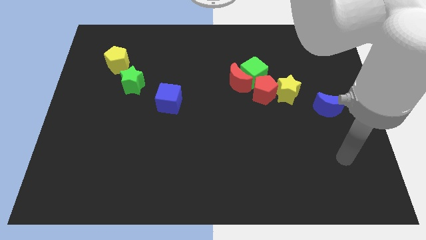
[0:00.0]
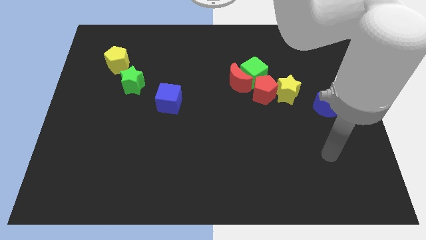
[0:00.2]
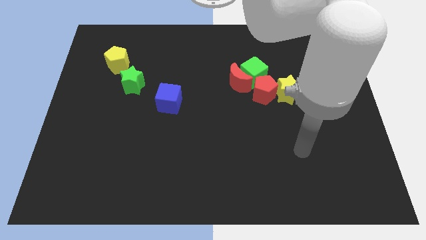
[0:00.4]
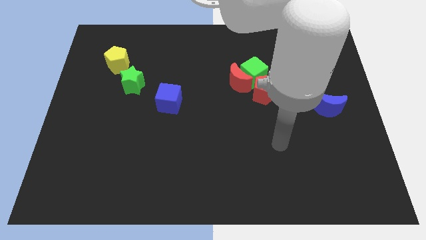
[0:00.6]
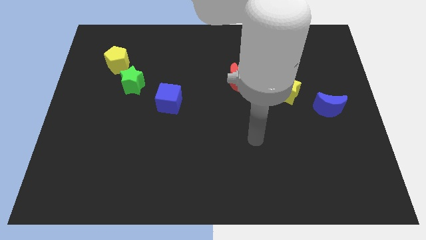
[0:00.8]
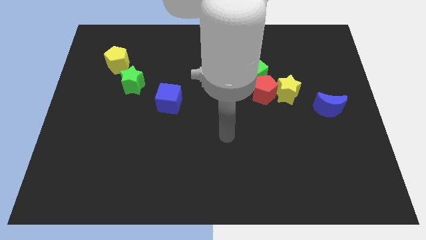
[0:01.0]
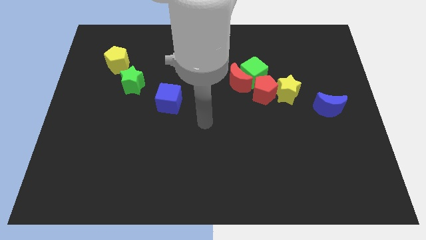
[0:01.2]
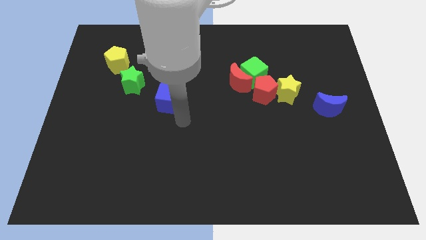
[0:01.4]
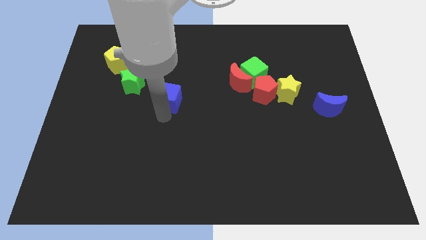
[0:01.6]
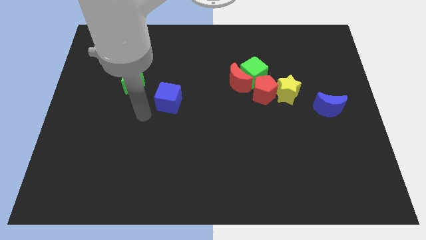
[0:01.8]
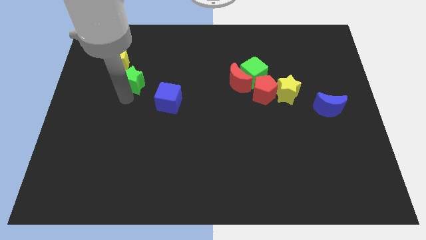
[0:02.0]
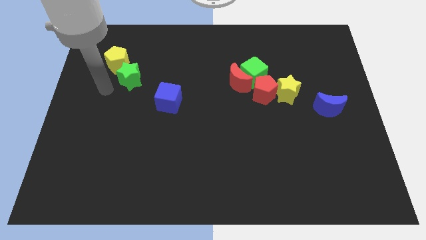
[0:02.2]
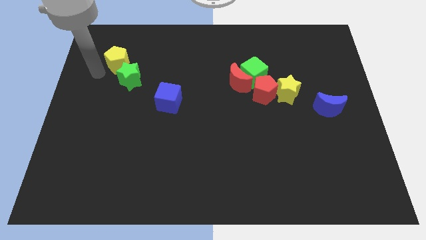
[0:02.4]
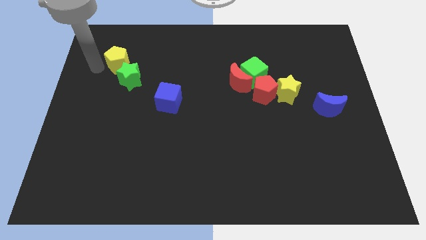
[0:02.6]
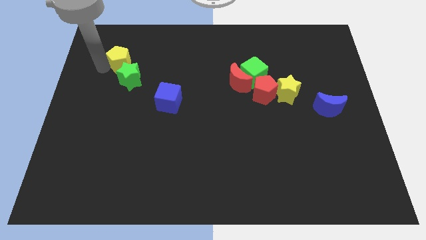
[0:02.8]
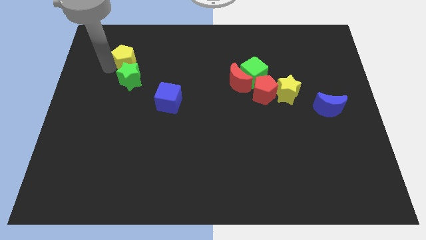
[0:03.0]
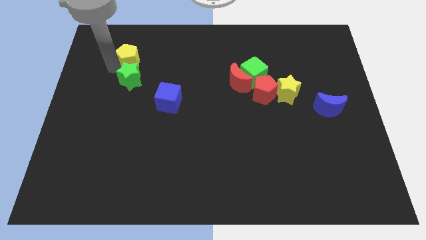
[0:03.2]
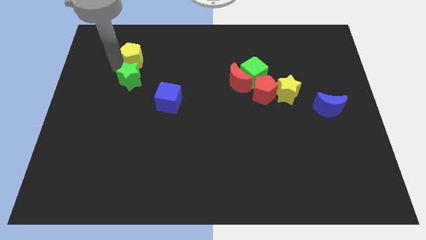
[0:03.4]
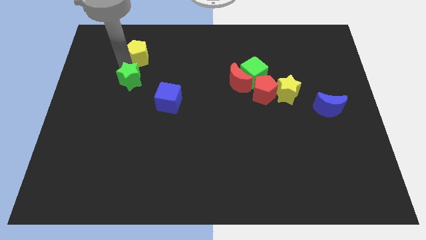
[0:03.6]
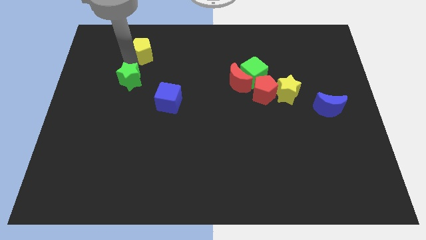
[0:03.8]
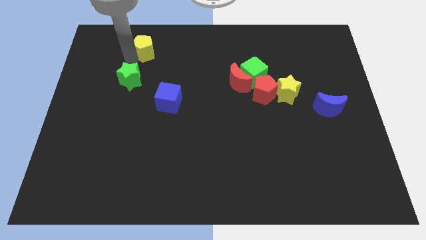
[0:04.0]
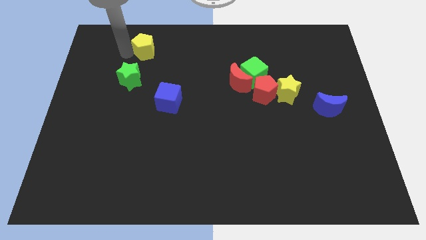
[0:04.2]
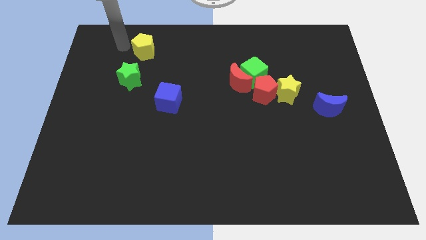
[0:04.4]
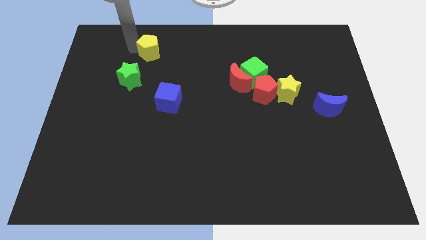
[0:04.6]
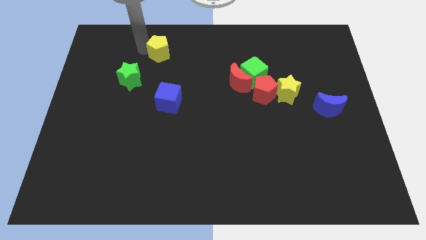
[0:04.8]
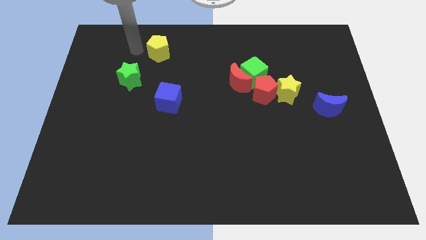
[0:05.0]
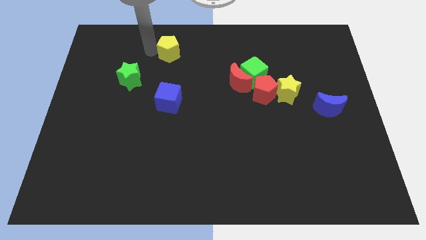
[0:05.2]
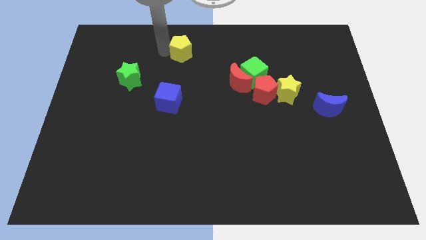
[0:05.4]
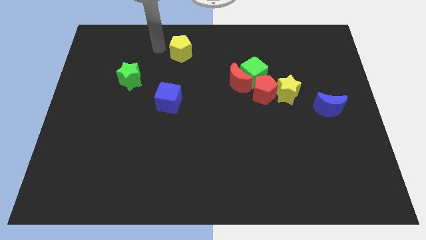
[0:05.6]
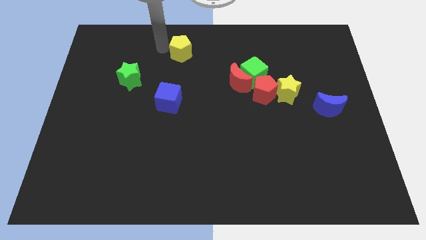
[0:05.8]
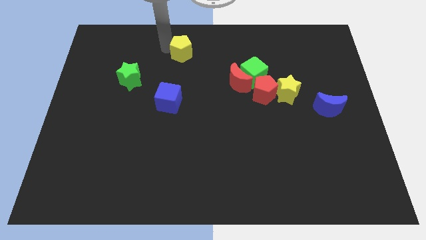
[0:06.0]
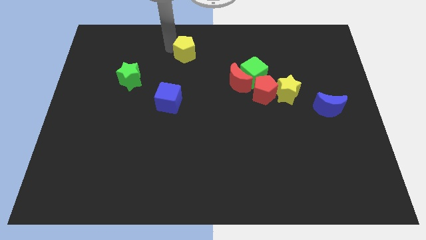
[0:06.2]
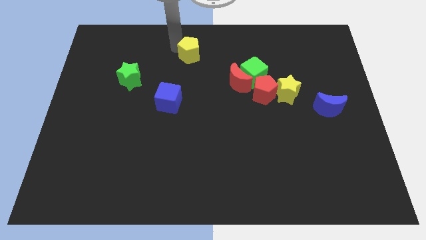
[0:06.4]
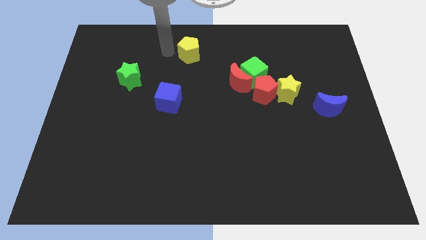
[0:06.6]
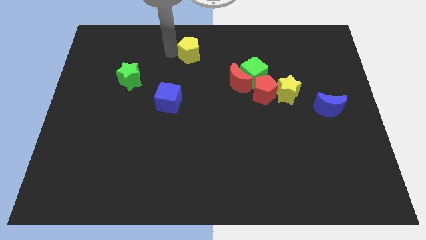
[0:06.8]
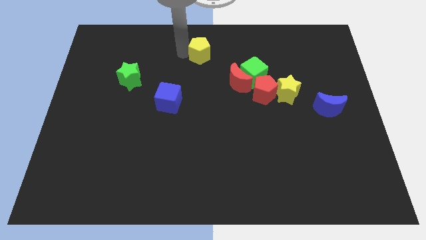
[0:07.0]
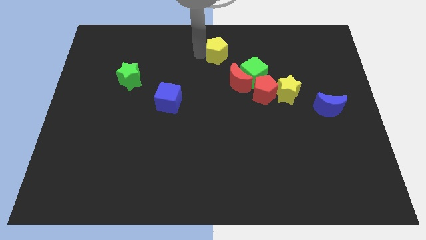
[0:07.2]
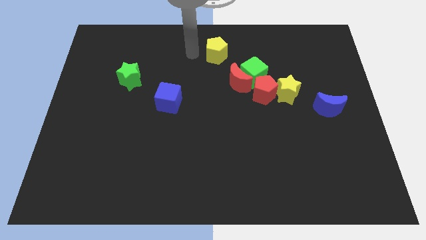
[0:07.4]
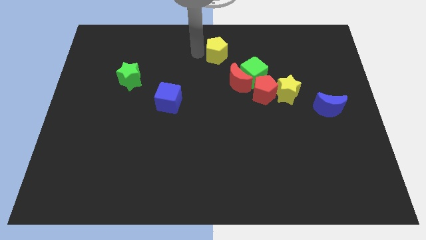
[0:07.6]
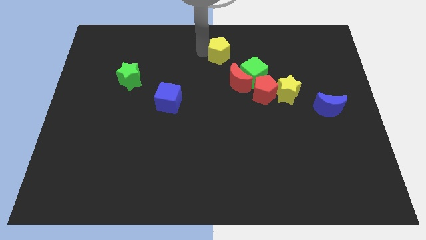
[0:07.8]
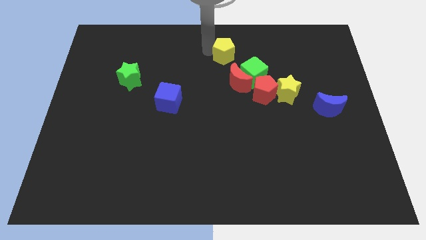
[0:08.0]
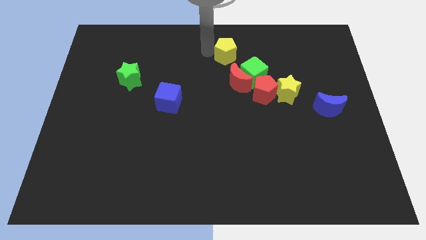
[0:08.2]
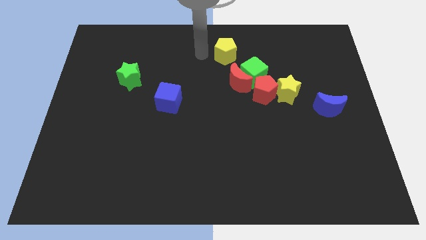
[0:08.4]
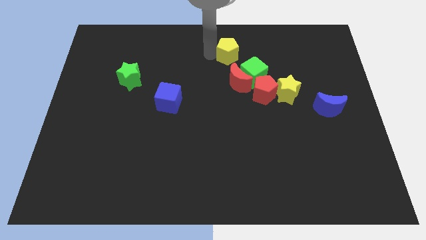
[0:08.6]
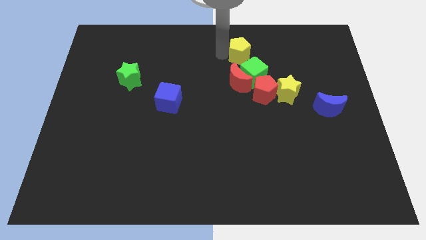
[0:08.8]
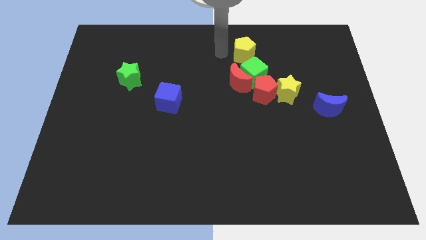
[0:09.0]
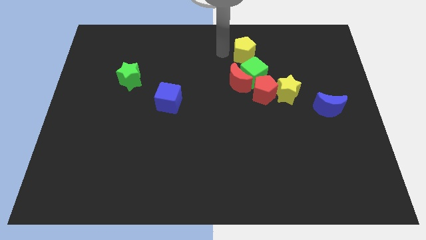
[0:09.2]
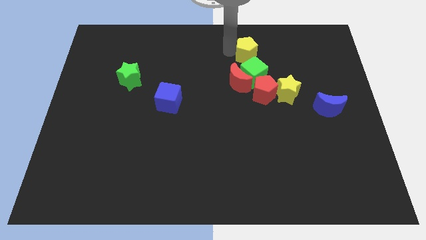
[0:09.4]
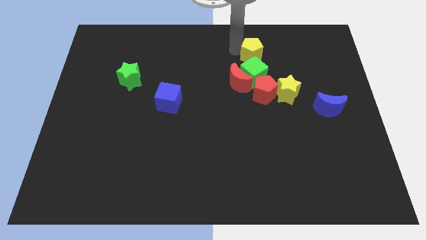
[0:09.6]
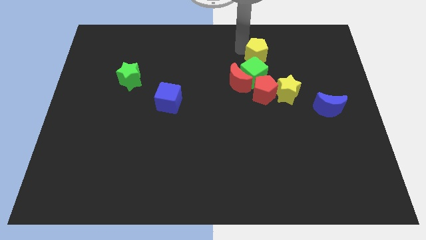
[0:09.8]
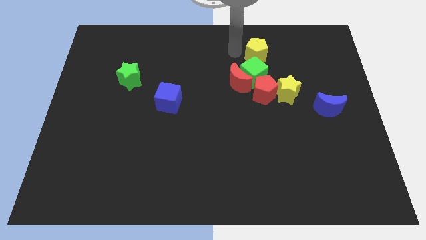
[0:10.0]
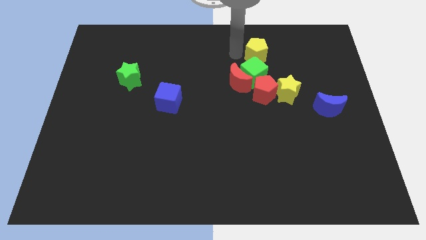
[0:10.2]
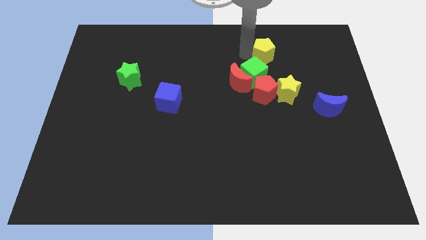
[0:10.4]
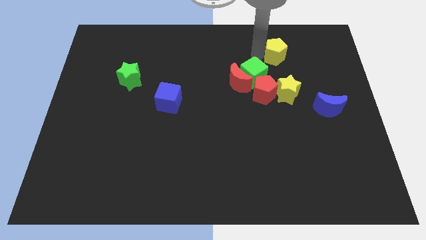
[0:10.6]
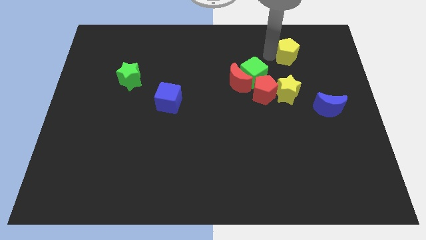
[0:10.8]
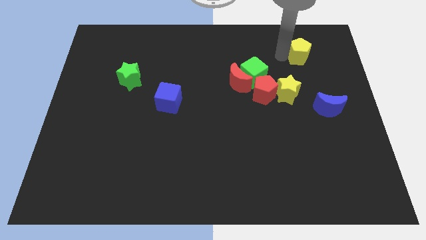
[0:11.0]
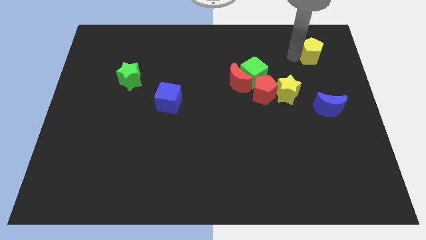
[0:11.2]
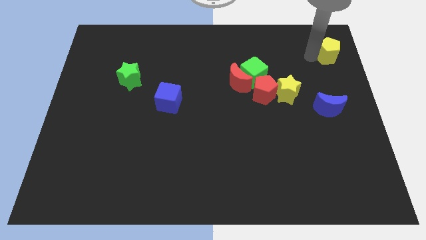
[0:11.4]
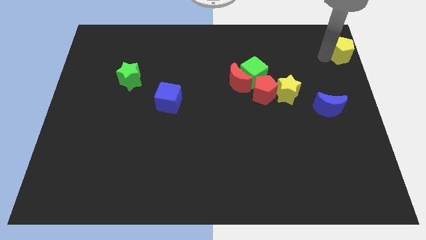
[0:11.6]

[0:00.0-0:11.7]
slide the yellow pentagon to the top right of the board

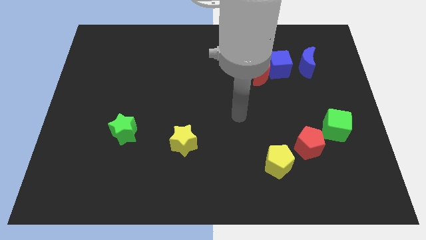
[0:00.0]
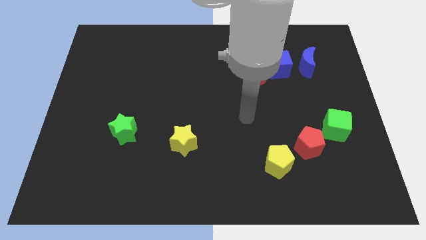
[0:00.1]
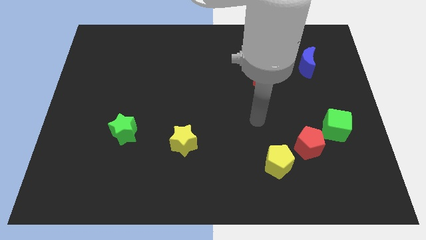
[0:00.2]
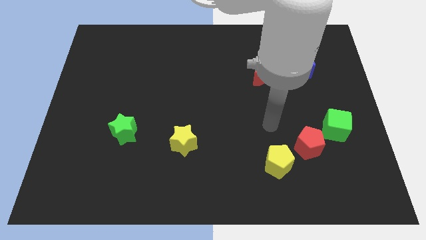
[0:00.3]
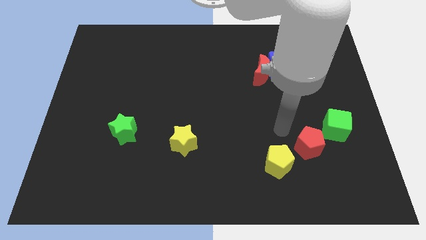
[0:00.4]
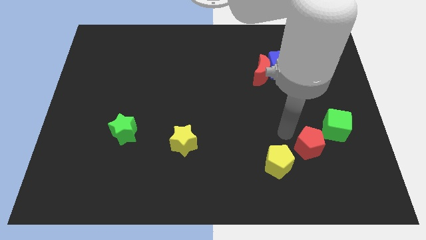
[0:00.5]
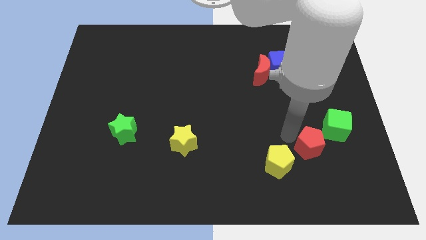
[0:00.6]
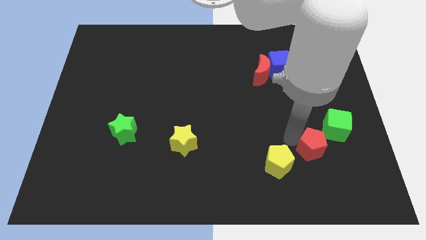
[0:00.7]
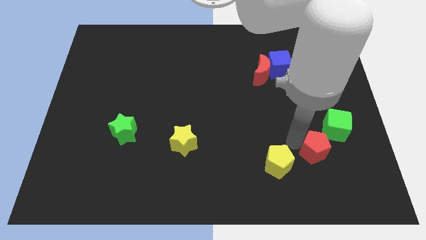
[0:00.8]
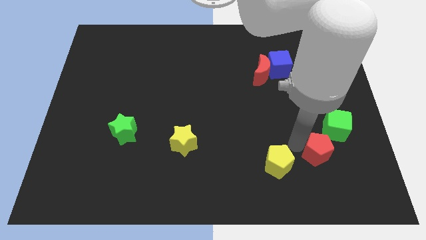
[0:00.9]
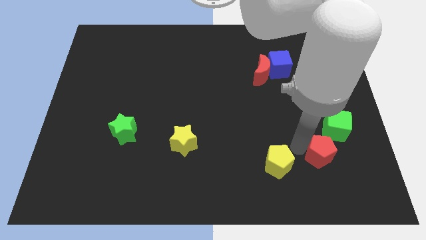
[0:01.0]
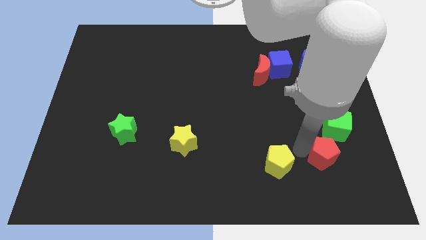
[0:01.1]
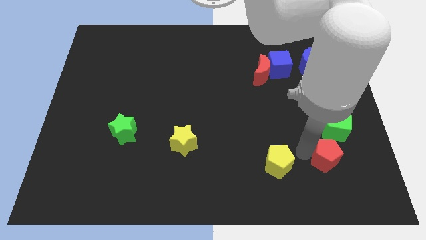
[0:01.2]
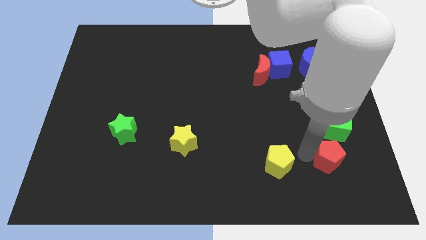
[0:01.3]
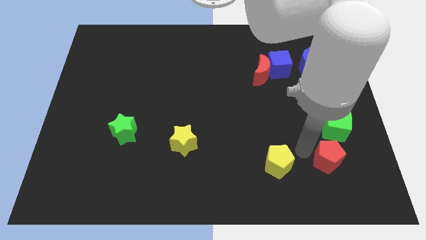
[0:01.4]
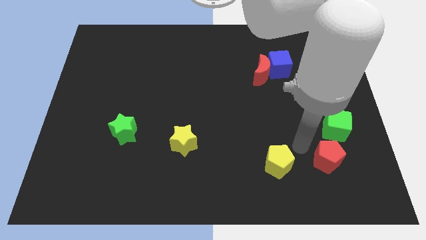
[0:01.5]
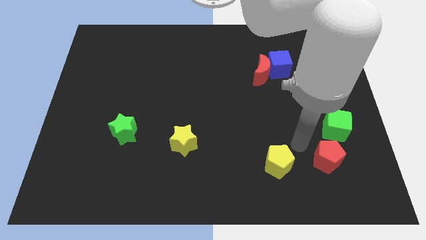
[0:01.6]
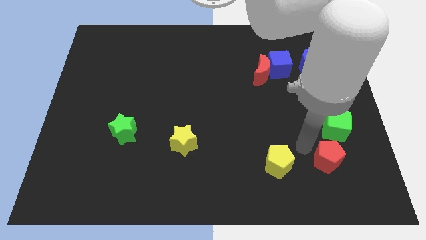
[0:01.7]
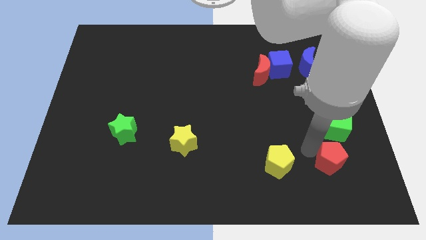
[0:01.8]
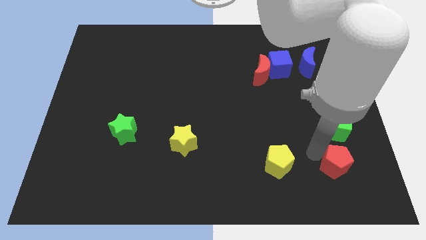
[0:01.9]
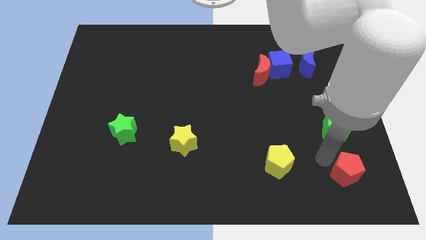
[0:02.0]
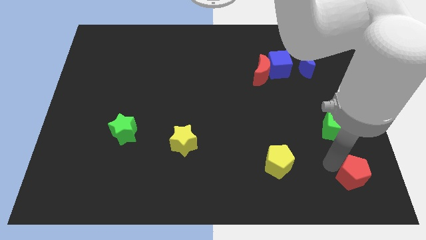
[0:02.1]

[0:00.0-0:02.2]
slide the red pentagon to the bottom right
